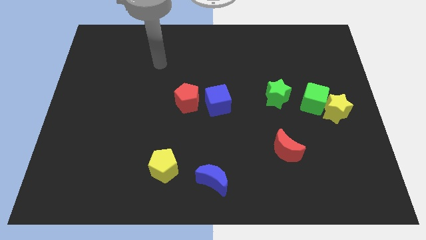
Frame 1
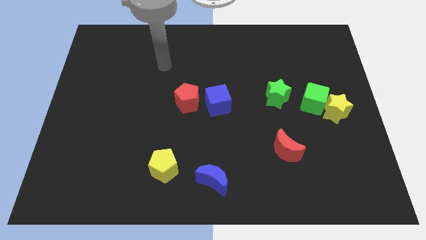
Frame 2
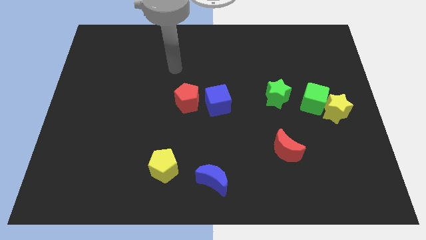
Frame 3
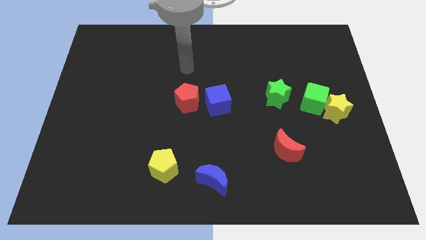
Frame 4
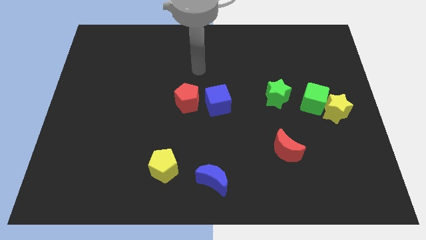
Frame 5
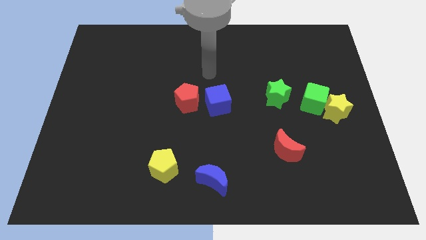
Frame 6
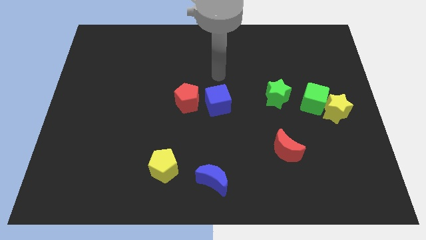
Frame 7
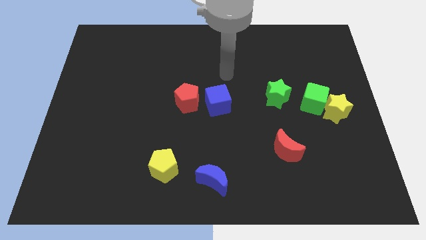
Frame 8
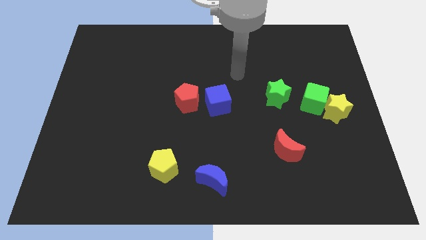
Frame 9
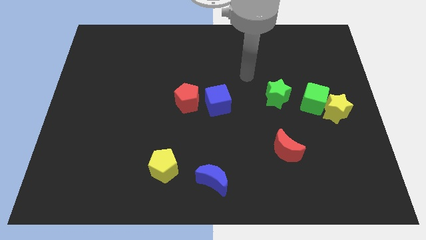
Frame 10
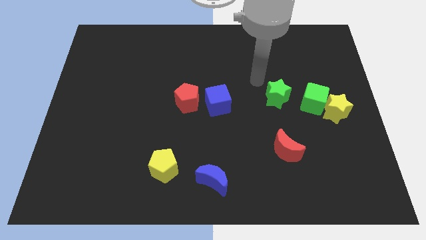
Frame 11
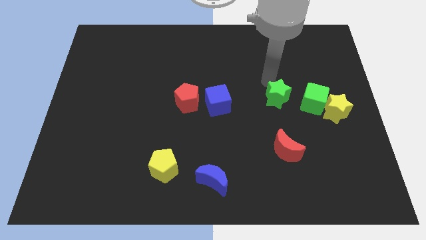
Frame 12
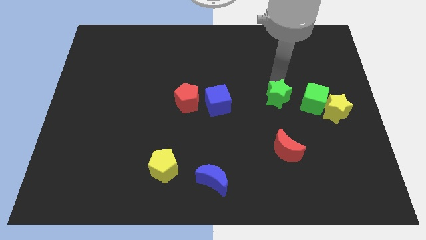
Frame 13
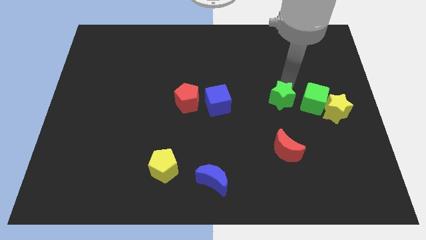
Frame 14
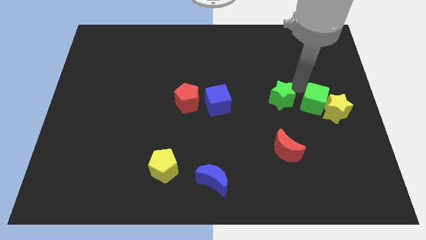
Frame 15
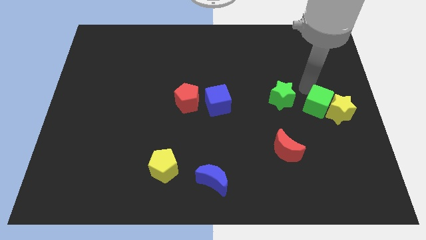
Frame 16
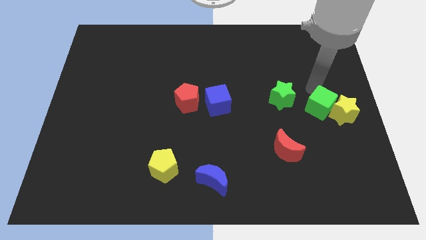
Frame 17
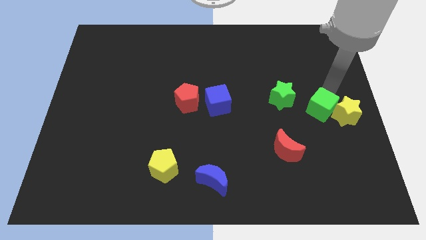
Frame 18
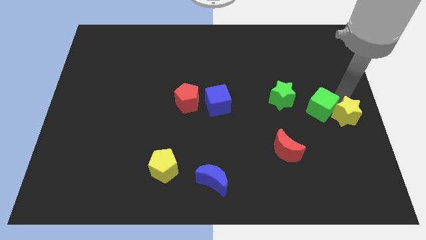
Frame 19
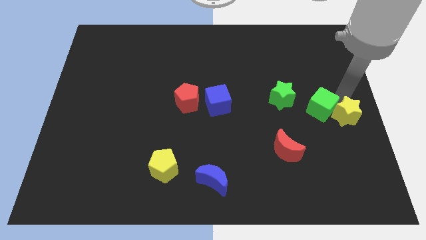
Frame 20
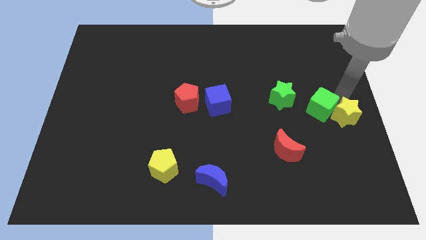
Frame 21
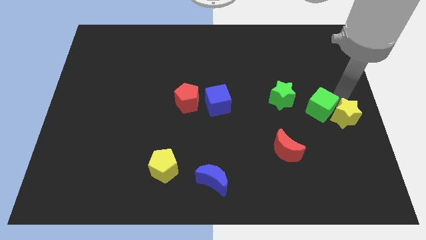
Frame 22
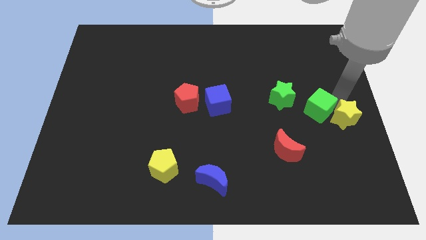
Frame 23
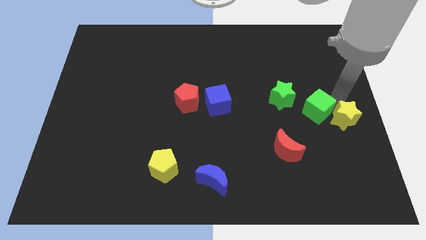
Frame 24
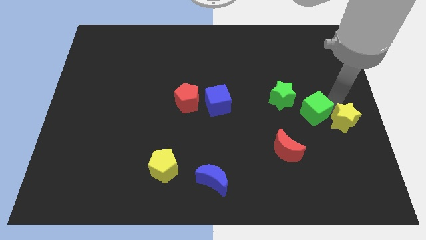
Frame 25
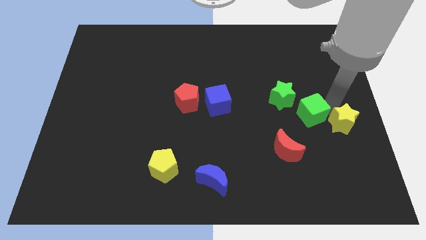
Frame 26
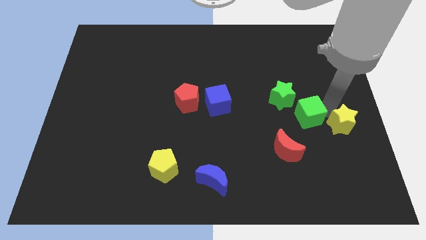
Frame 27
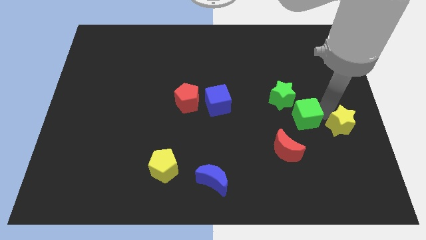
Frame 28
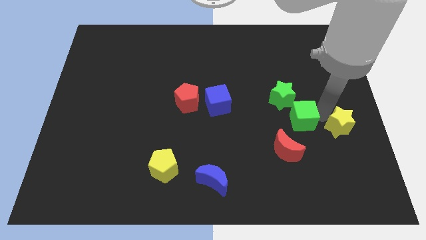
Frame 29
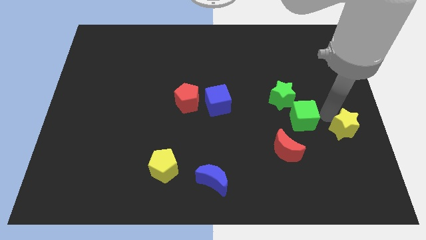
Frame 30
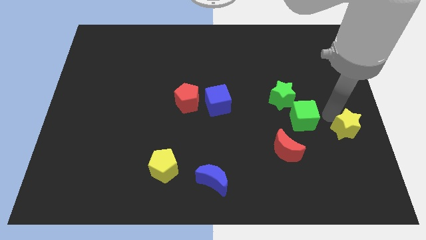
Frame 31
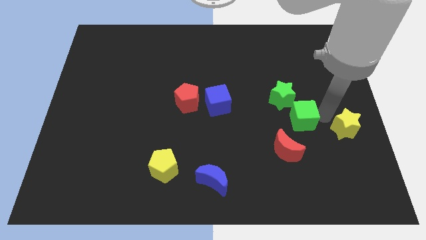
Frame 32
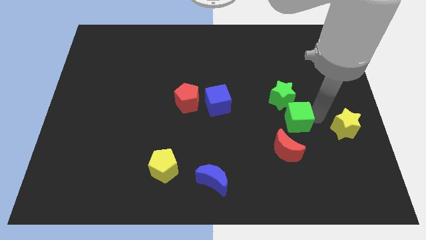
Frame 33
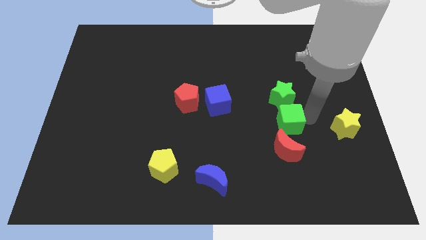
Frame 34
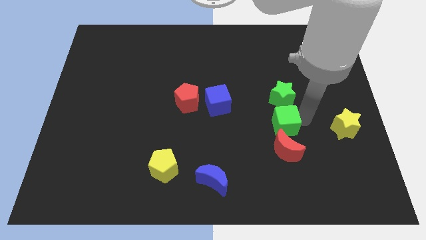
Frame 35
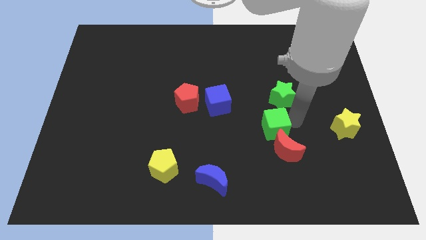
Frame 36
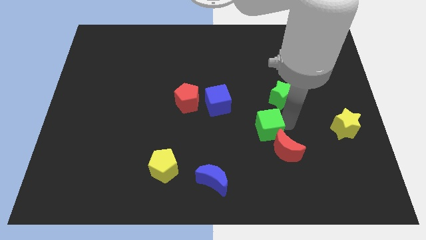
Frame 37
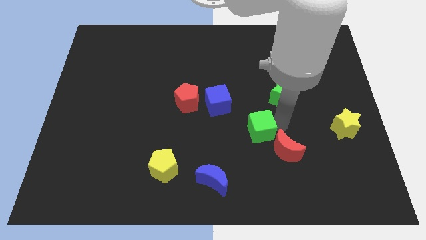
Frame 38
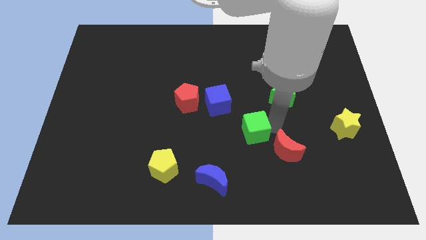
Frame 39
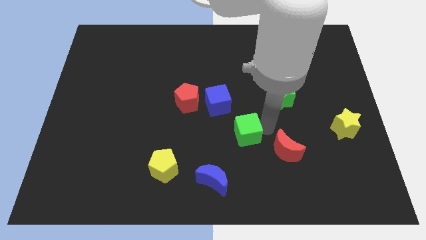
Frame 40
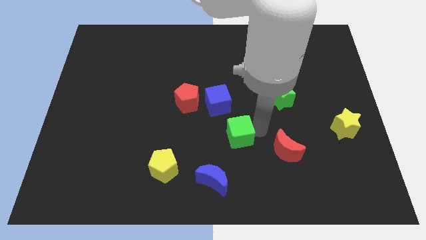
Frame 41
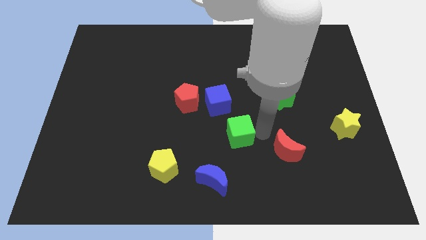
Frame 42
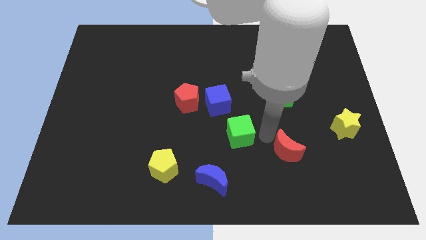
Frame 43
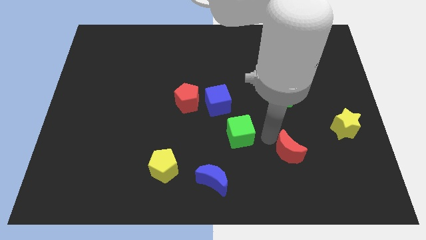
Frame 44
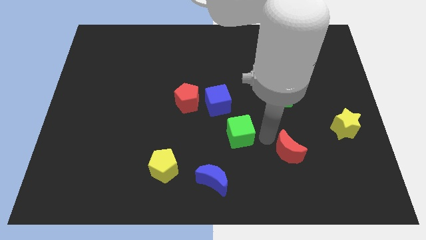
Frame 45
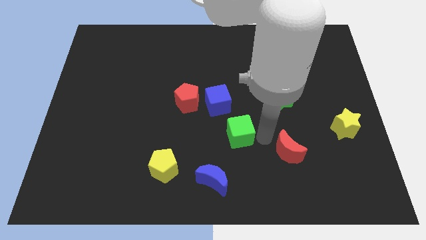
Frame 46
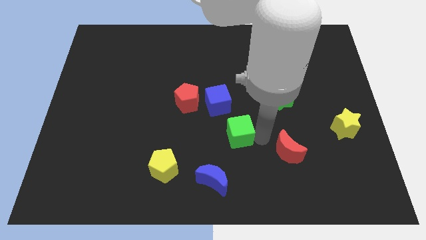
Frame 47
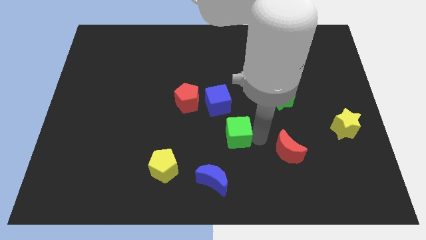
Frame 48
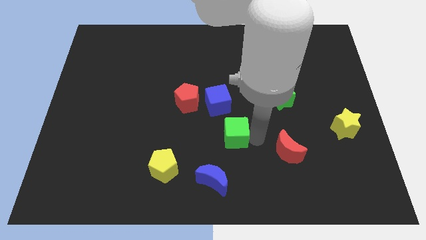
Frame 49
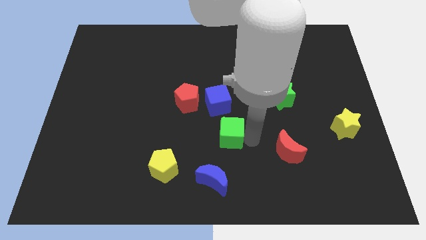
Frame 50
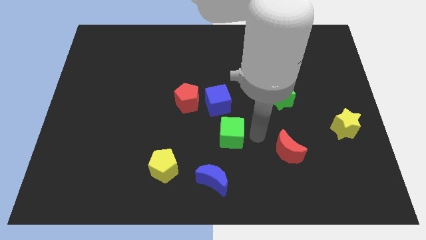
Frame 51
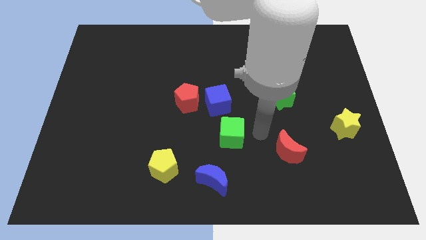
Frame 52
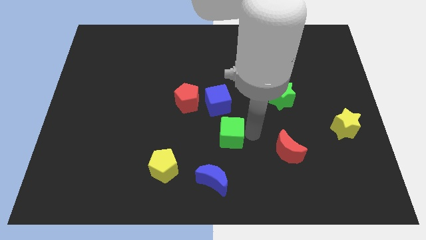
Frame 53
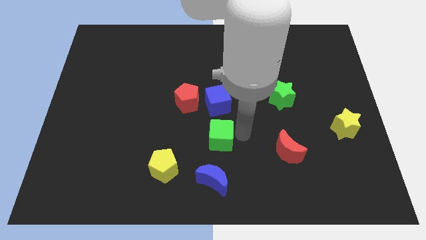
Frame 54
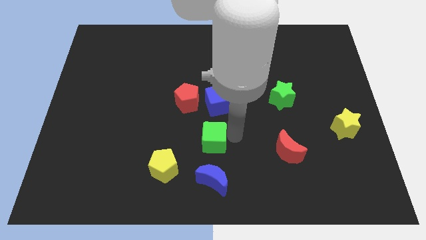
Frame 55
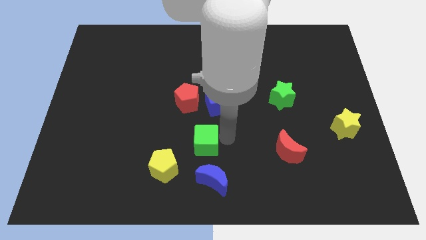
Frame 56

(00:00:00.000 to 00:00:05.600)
push the green cube to the bottom side of the red pentagon

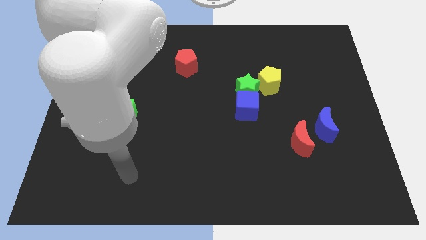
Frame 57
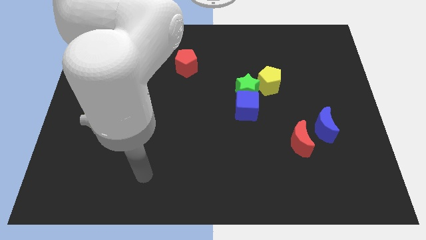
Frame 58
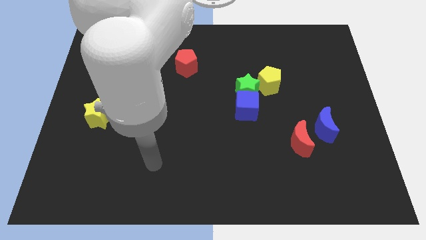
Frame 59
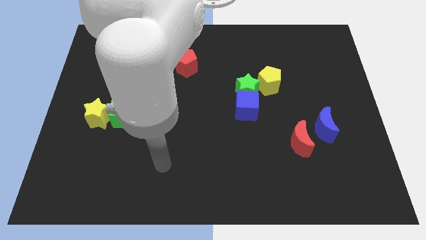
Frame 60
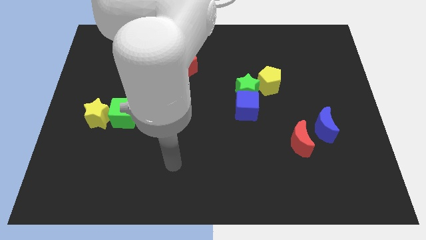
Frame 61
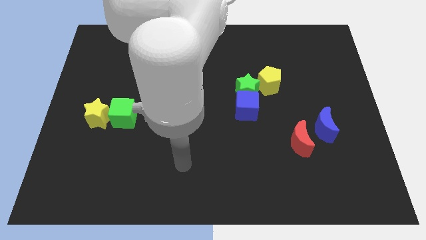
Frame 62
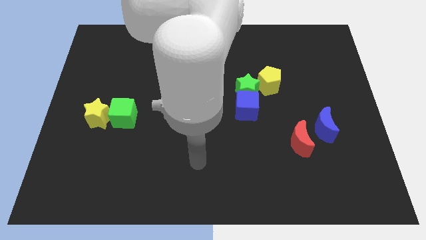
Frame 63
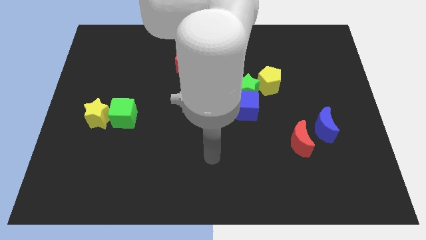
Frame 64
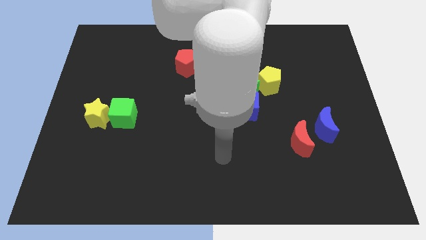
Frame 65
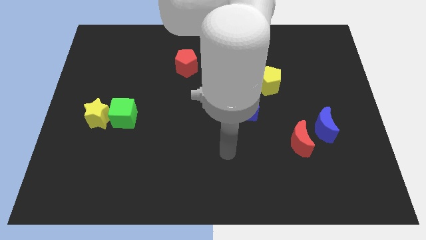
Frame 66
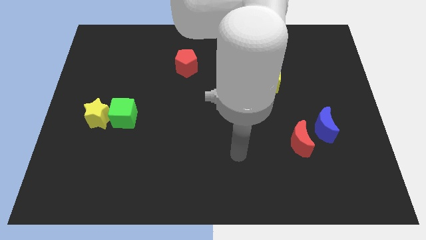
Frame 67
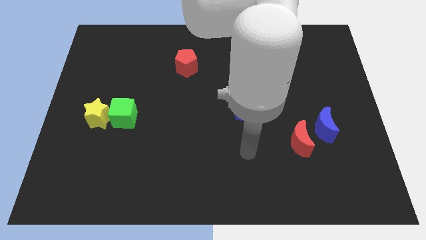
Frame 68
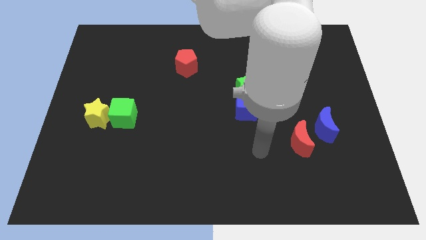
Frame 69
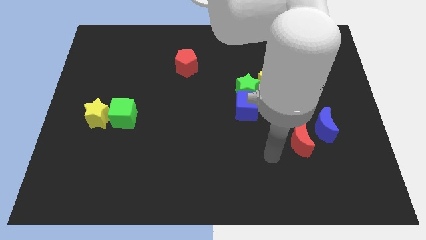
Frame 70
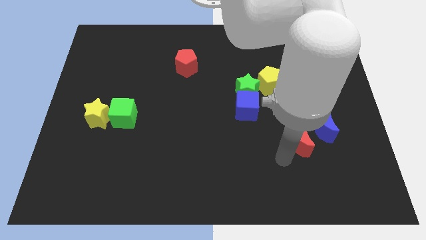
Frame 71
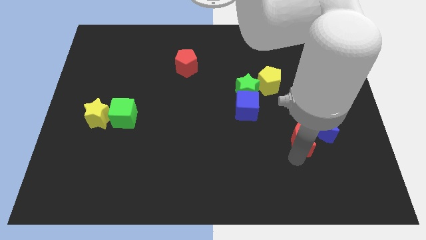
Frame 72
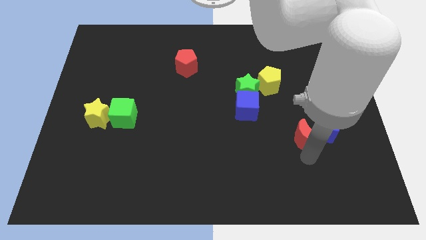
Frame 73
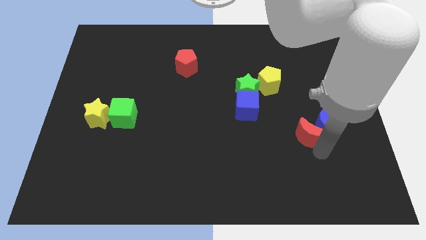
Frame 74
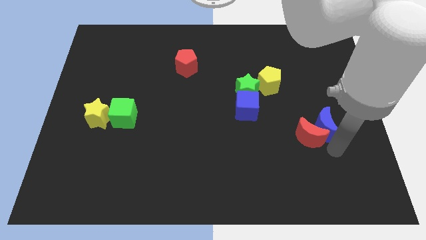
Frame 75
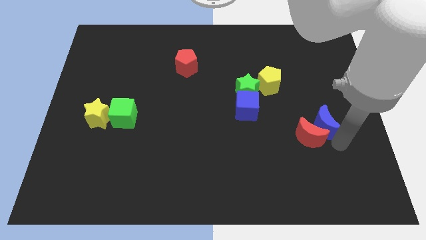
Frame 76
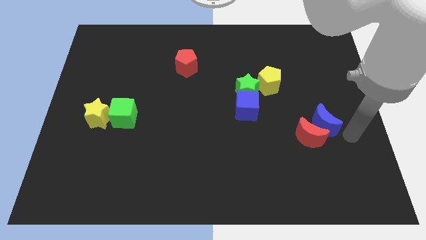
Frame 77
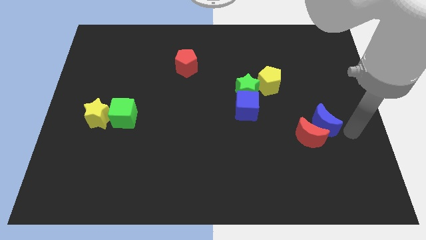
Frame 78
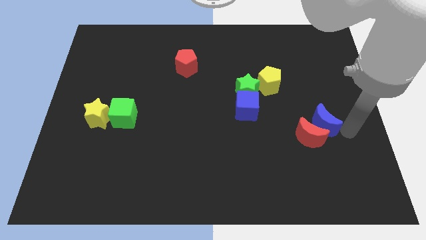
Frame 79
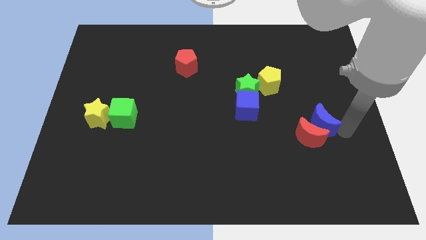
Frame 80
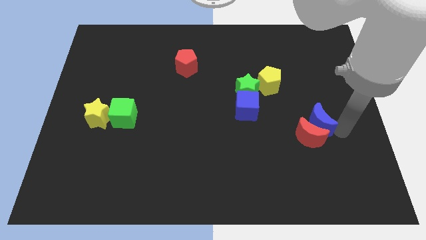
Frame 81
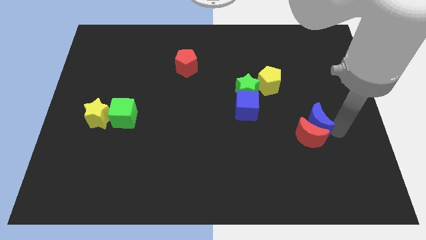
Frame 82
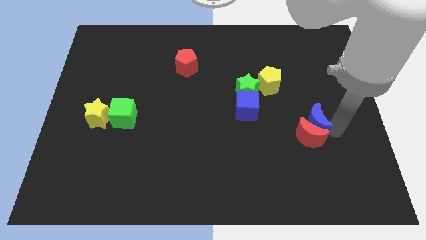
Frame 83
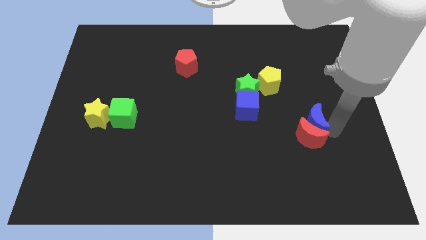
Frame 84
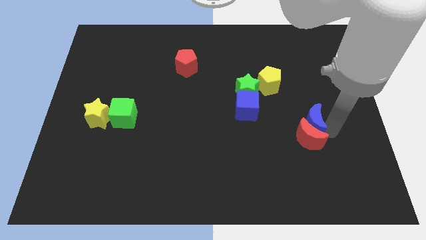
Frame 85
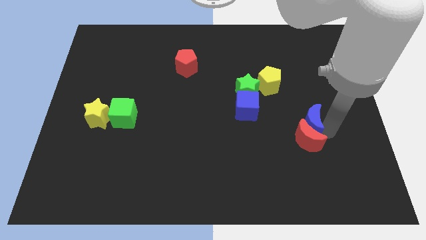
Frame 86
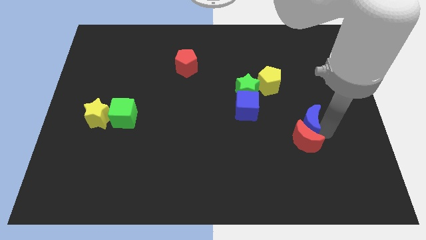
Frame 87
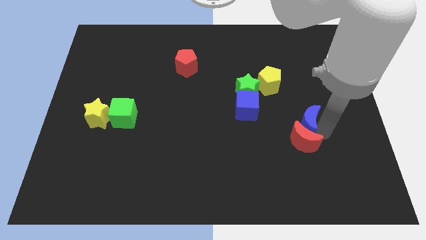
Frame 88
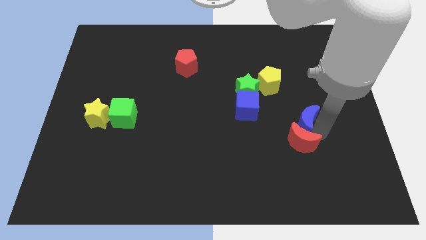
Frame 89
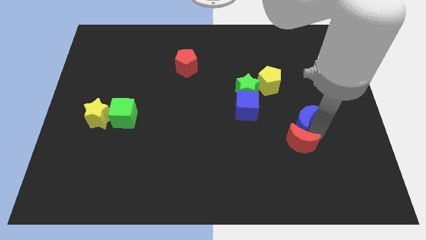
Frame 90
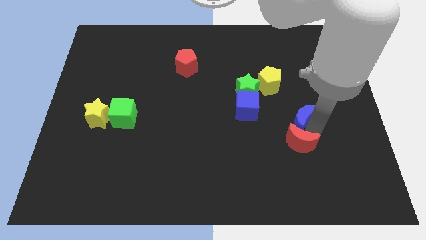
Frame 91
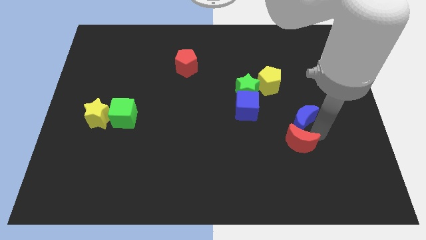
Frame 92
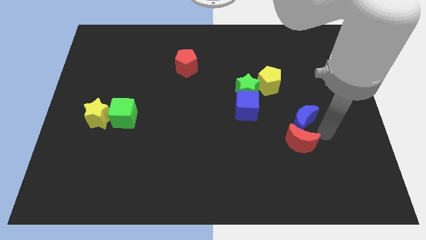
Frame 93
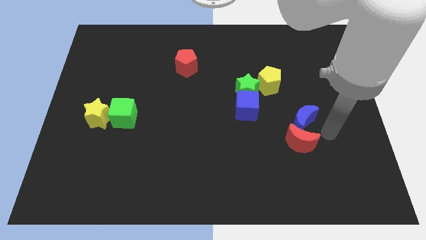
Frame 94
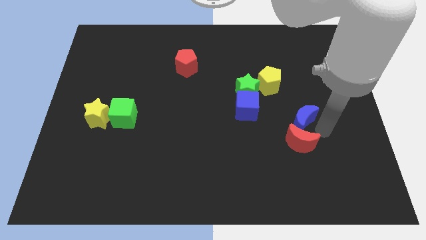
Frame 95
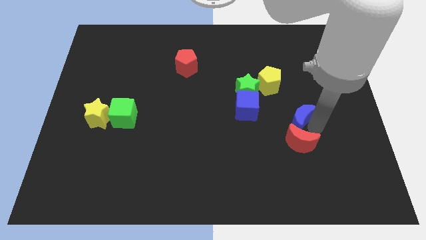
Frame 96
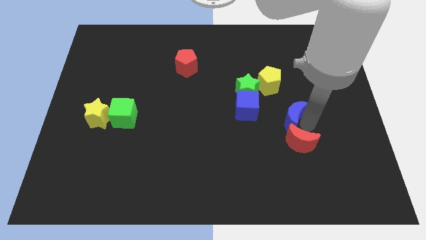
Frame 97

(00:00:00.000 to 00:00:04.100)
move the blue moon to the bottom right side of the green star
